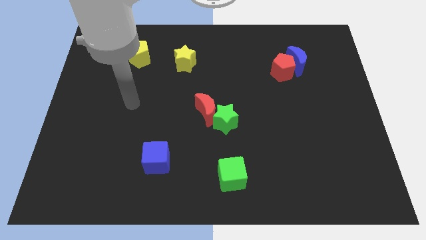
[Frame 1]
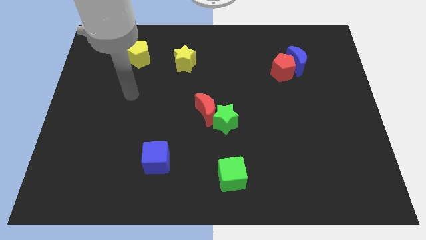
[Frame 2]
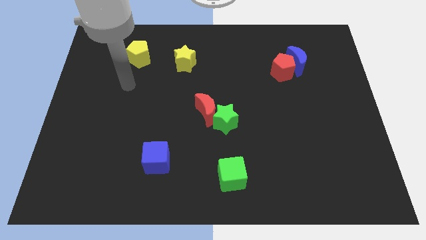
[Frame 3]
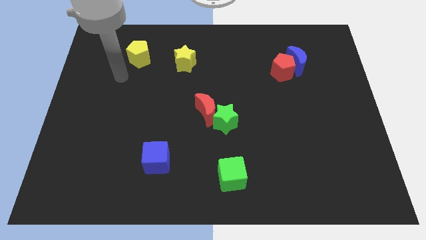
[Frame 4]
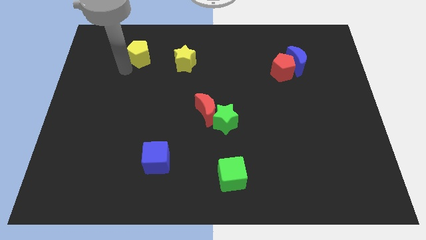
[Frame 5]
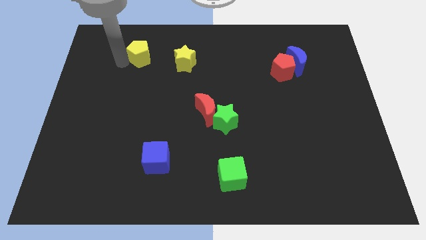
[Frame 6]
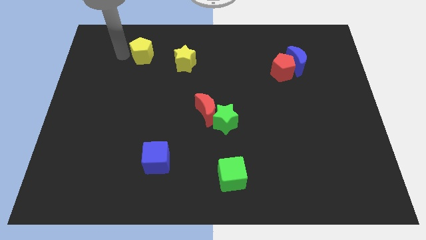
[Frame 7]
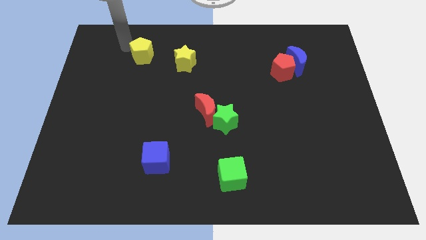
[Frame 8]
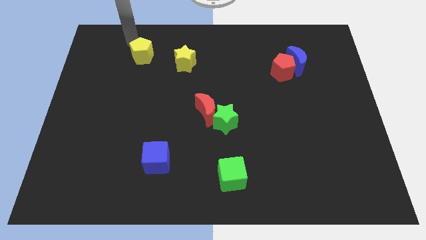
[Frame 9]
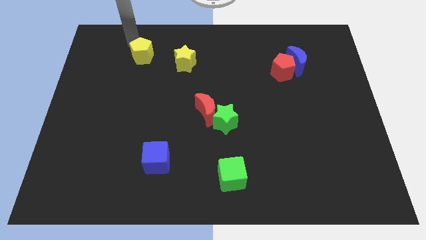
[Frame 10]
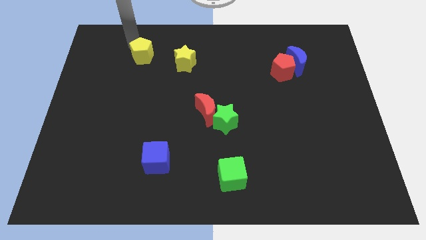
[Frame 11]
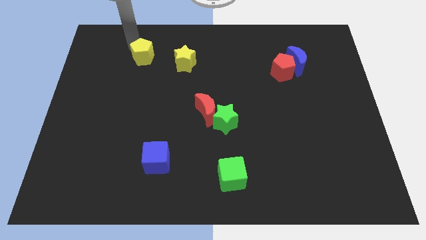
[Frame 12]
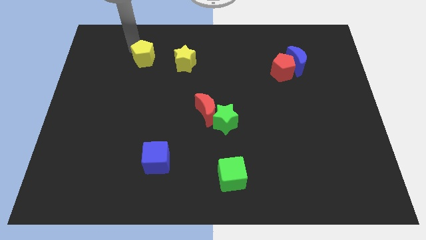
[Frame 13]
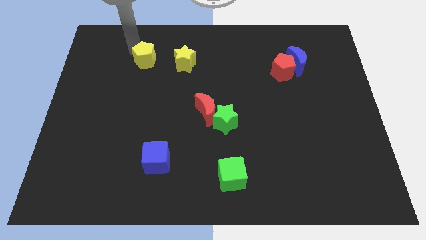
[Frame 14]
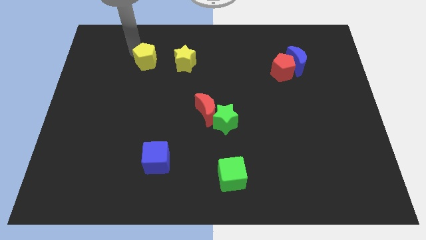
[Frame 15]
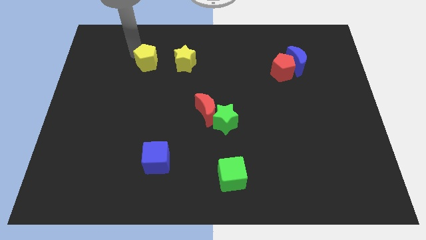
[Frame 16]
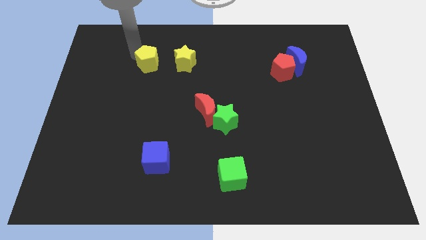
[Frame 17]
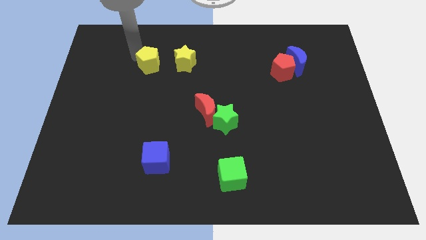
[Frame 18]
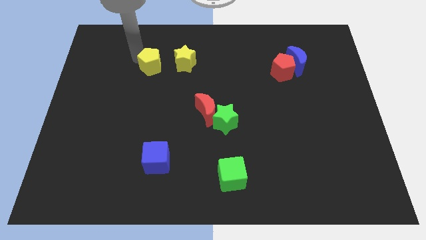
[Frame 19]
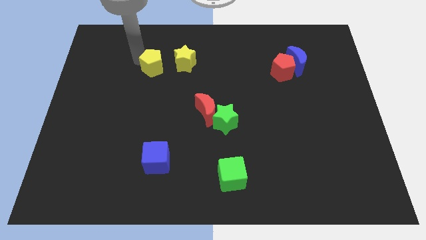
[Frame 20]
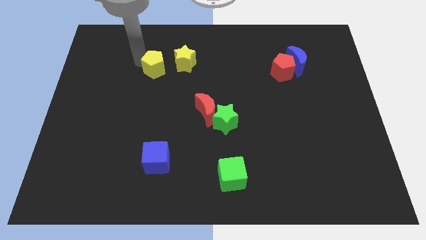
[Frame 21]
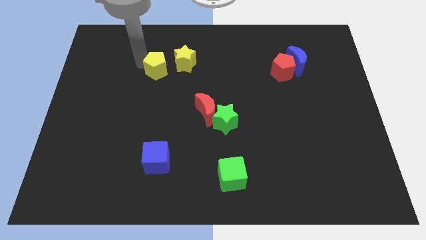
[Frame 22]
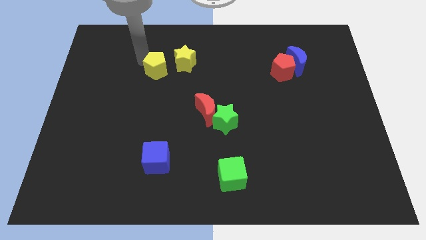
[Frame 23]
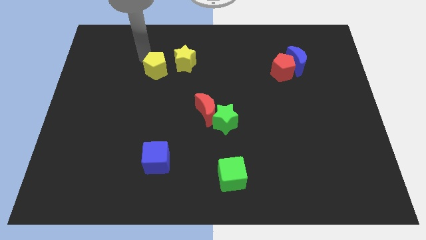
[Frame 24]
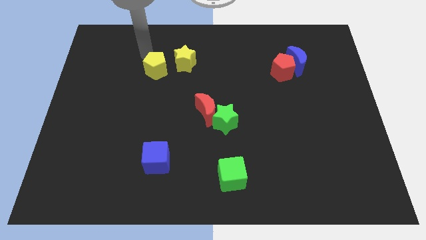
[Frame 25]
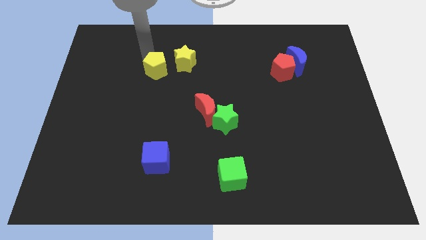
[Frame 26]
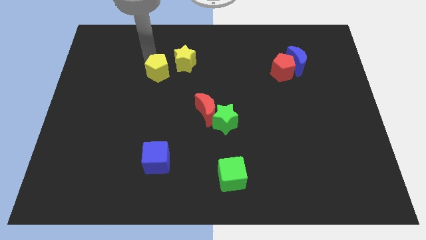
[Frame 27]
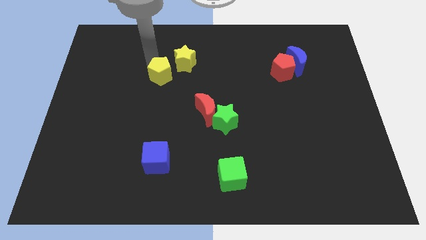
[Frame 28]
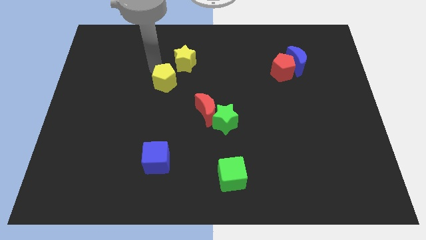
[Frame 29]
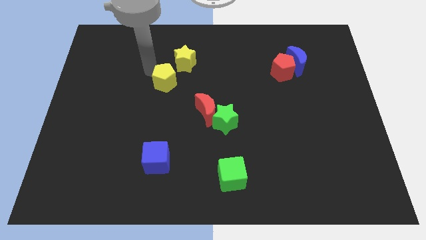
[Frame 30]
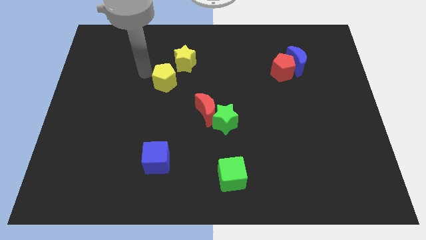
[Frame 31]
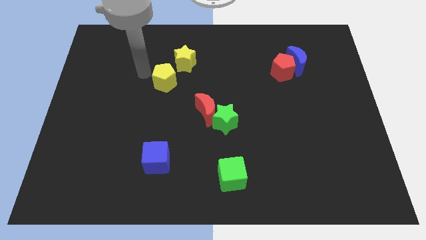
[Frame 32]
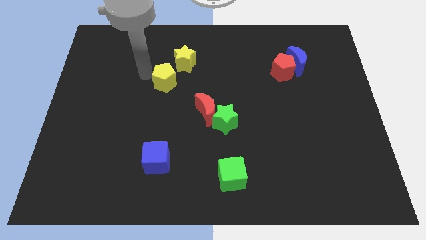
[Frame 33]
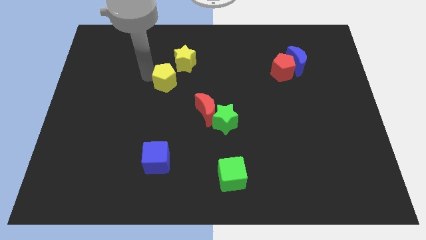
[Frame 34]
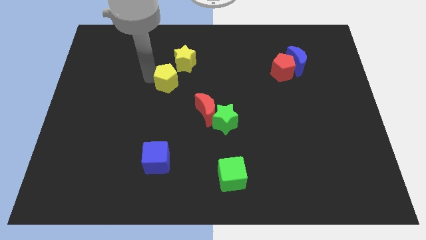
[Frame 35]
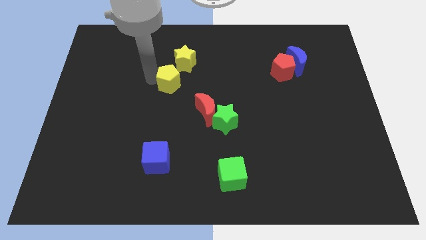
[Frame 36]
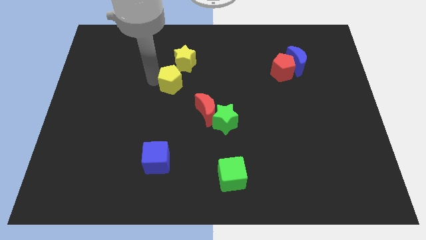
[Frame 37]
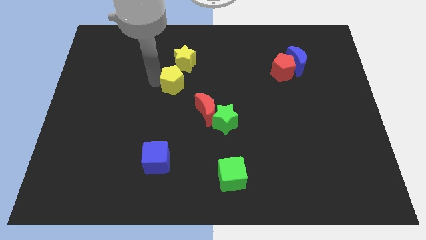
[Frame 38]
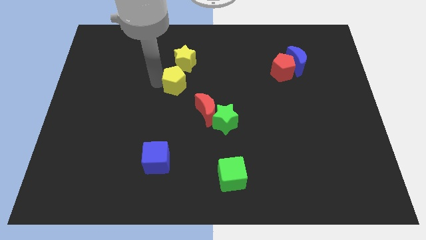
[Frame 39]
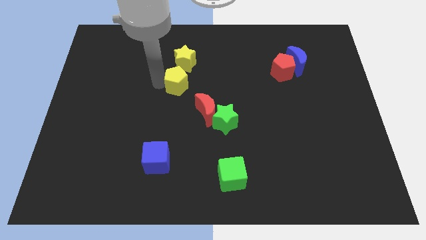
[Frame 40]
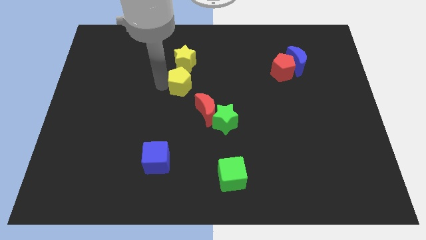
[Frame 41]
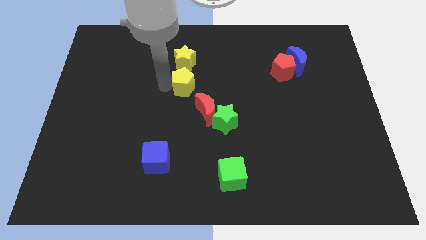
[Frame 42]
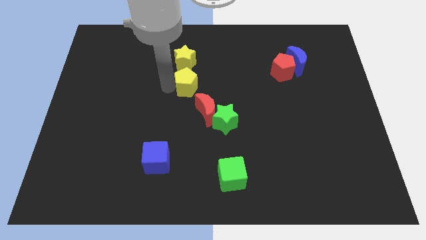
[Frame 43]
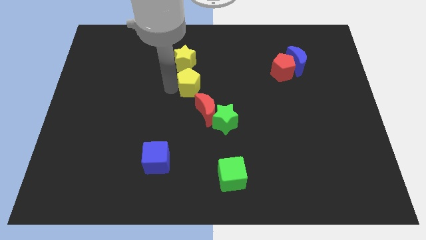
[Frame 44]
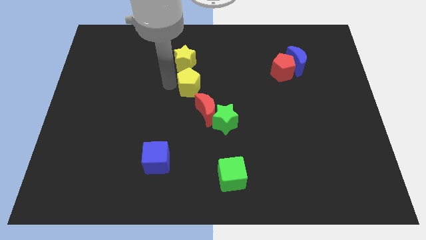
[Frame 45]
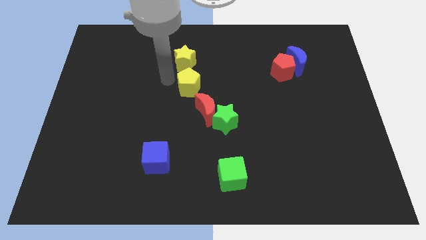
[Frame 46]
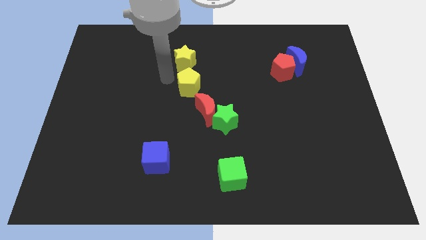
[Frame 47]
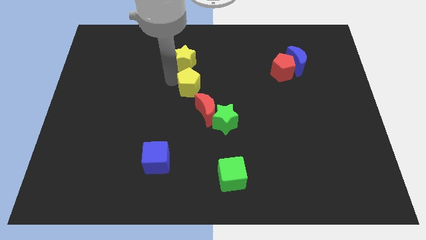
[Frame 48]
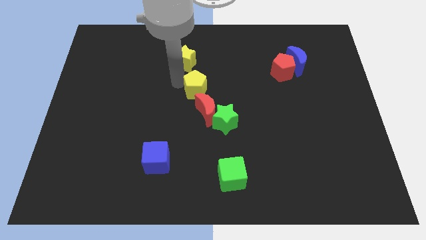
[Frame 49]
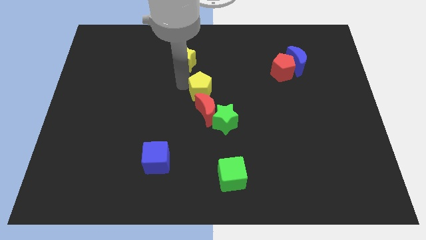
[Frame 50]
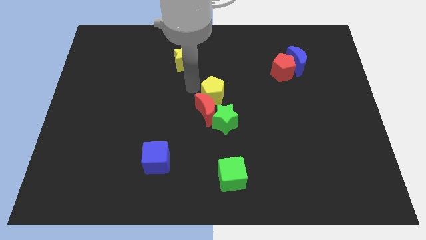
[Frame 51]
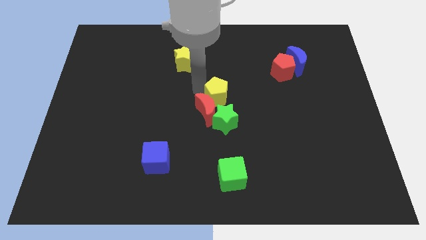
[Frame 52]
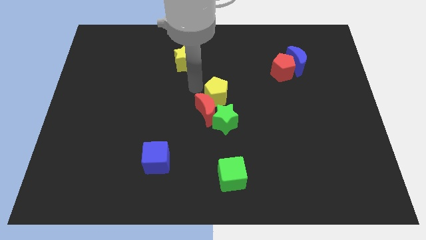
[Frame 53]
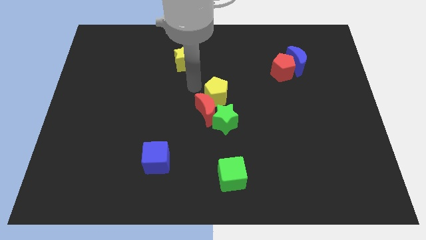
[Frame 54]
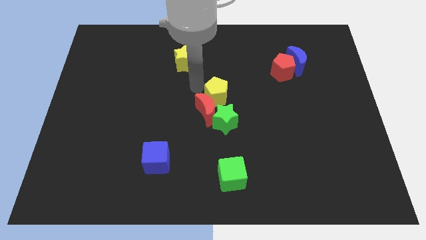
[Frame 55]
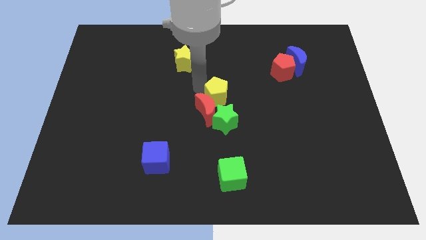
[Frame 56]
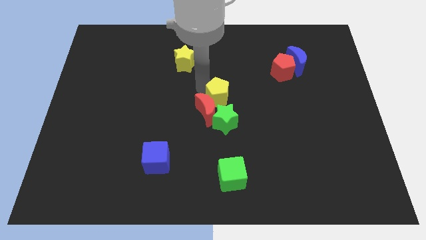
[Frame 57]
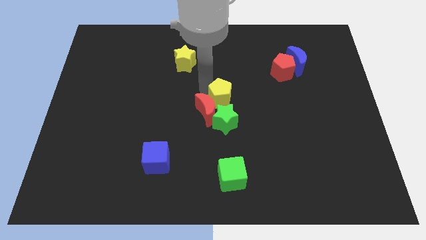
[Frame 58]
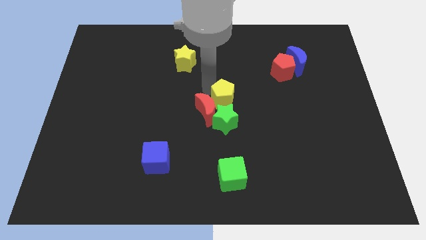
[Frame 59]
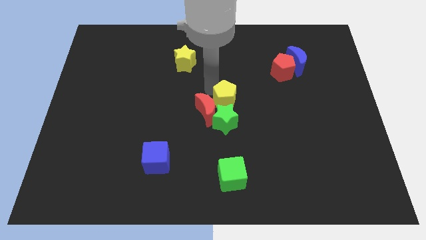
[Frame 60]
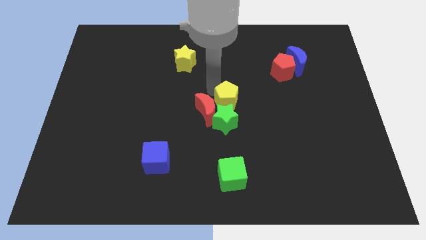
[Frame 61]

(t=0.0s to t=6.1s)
put the yellow pentagon to the green star
